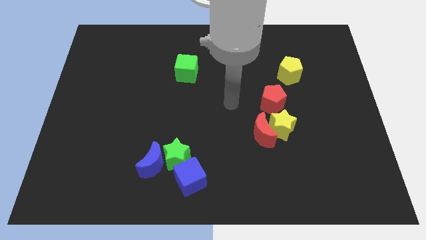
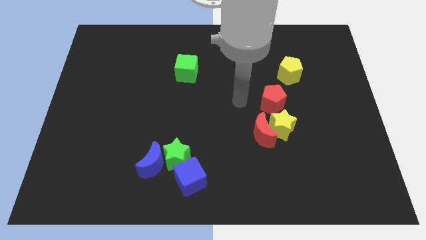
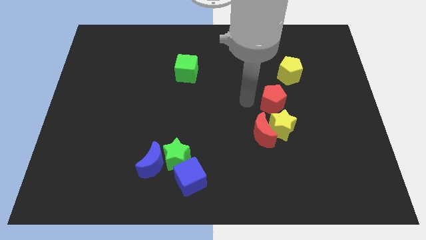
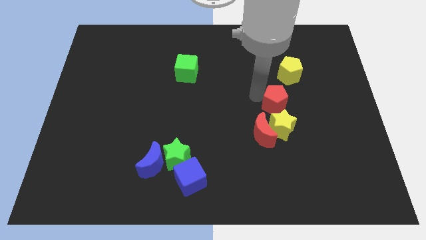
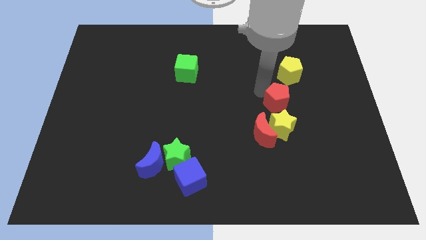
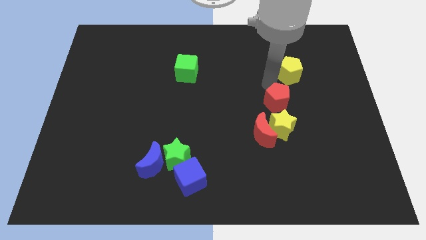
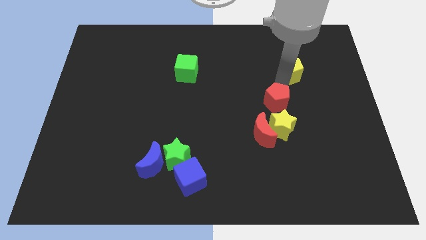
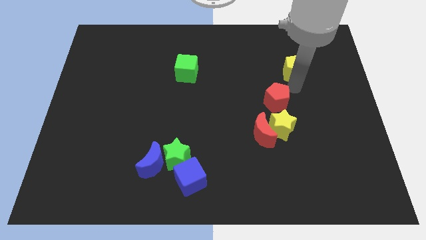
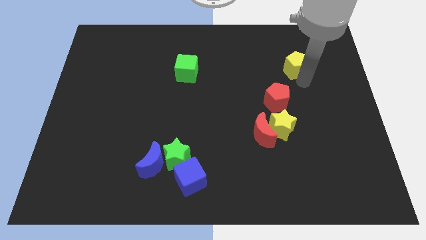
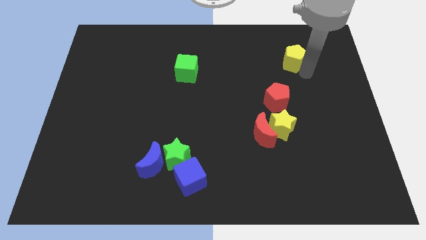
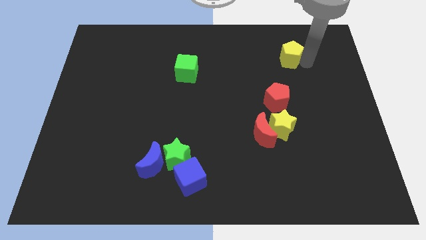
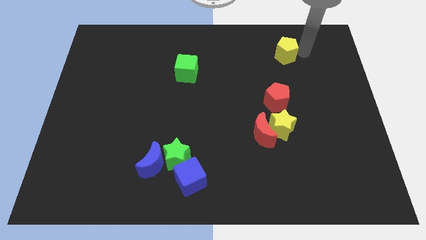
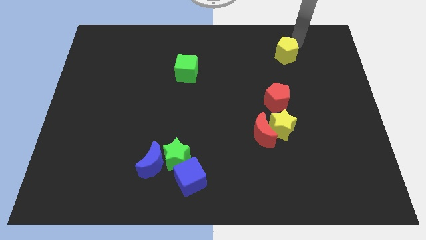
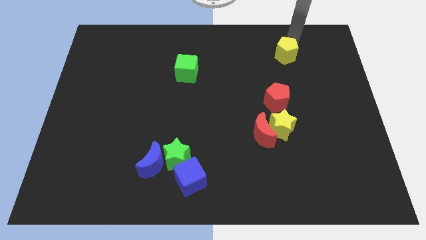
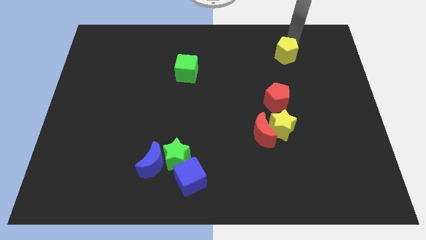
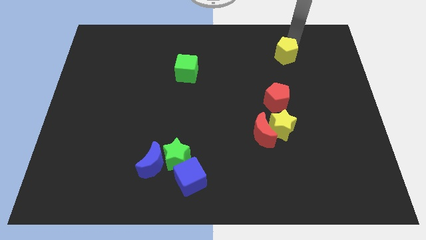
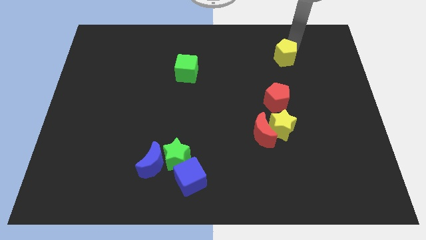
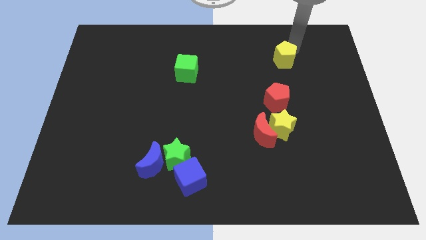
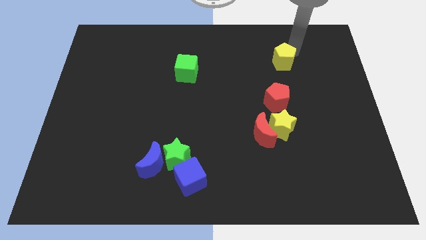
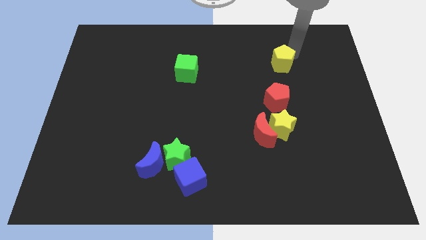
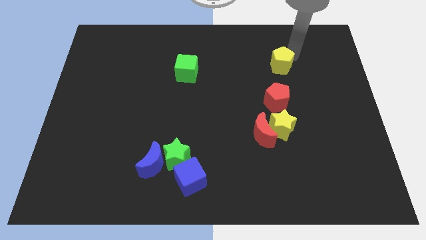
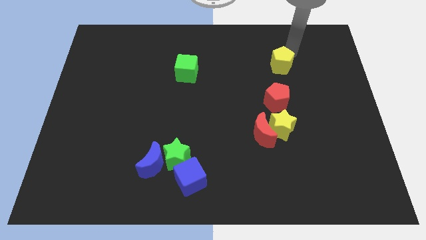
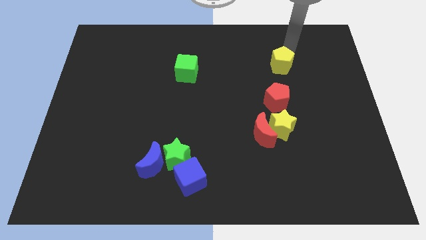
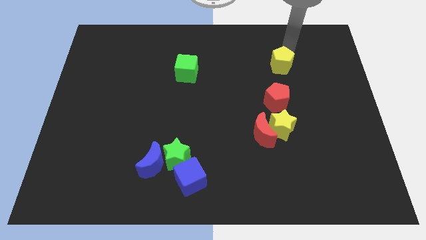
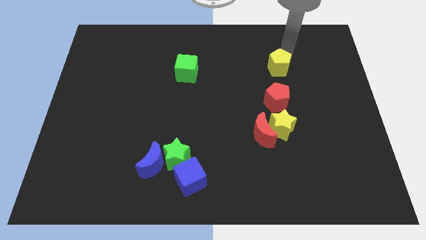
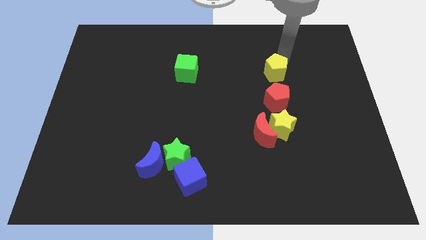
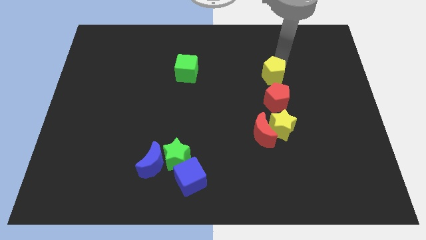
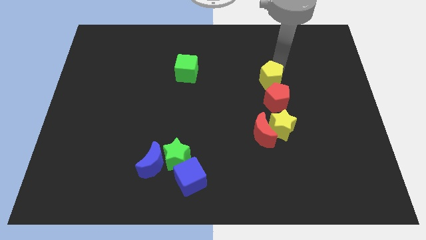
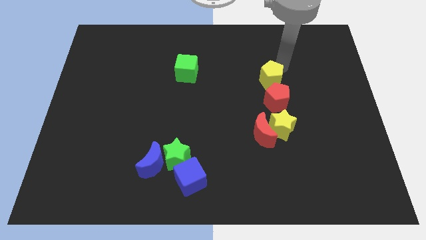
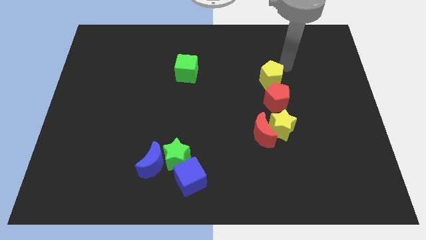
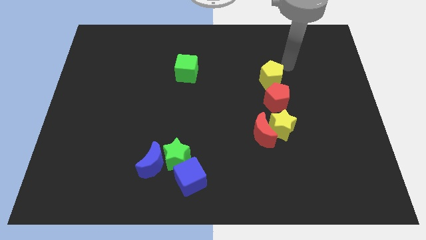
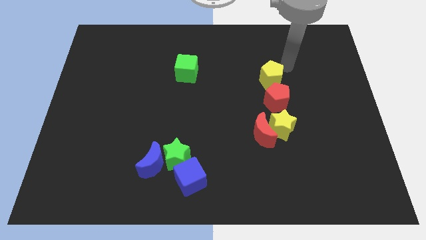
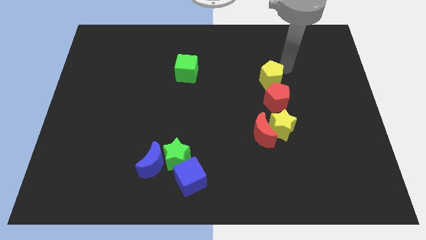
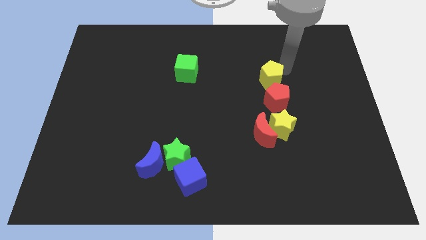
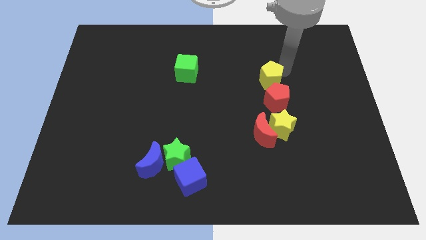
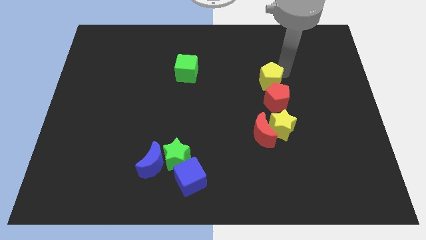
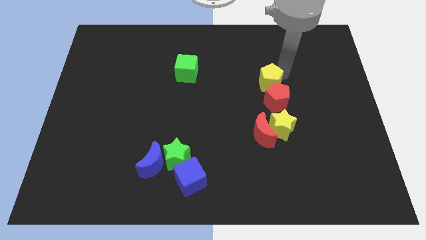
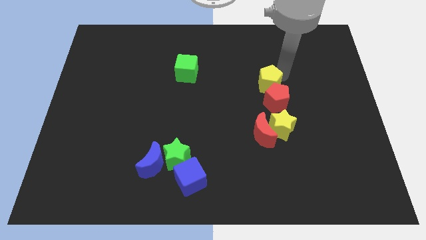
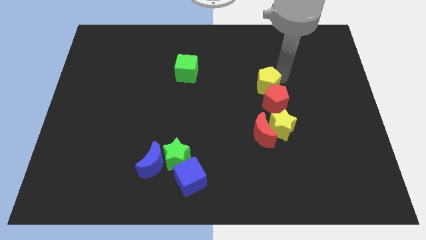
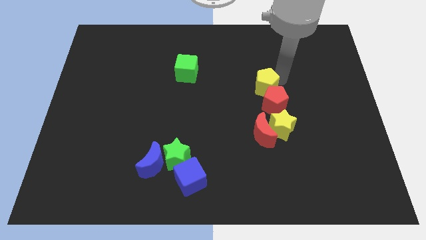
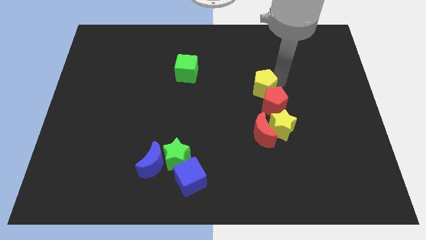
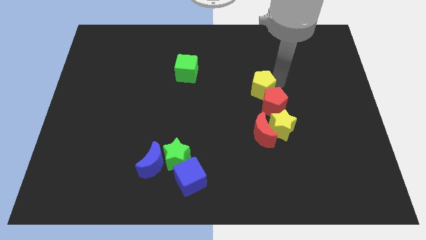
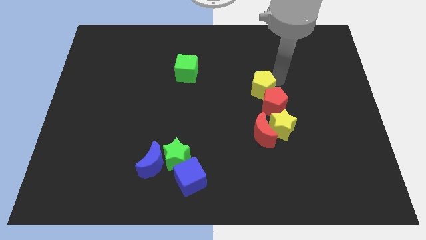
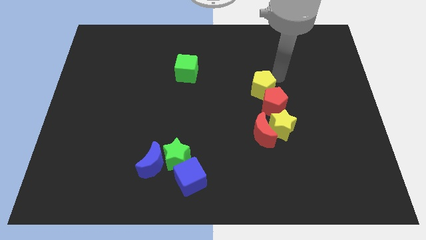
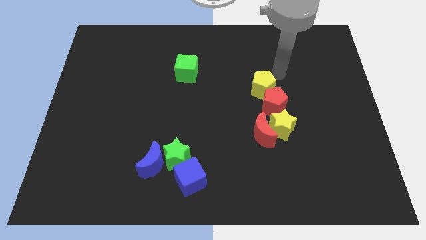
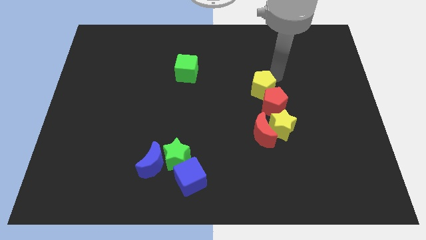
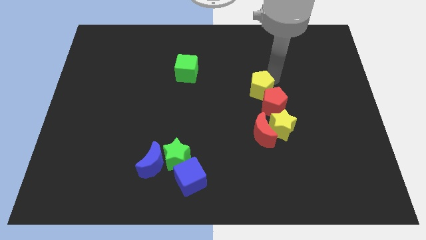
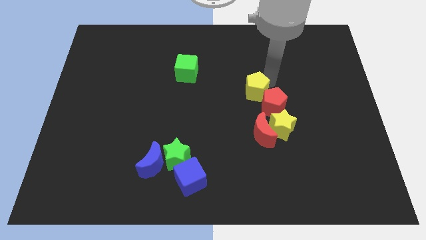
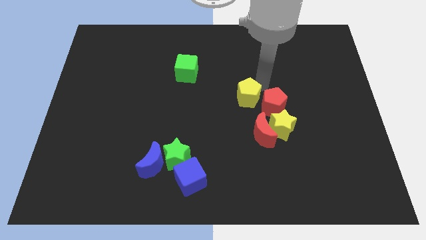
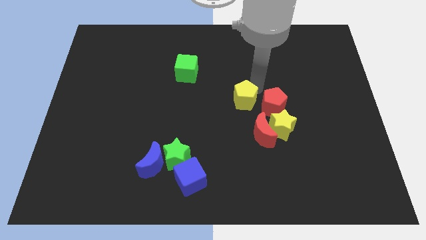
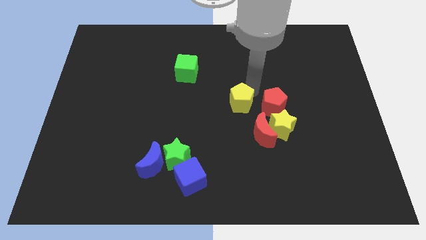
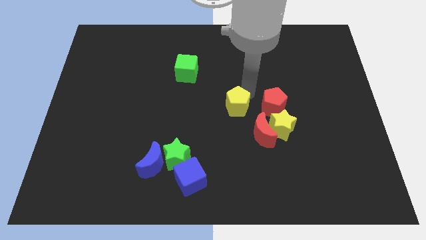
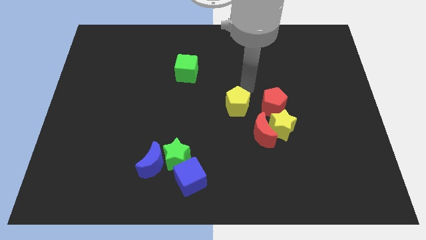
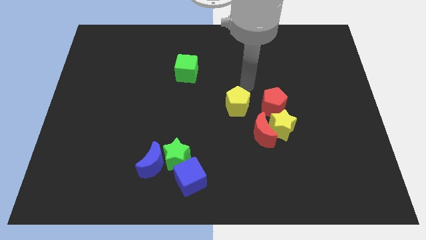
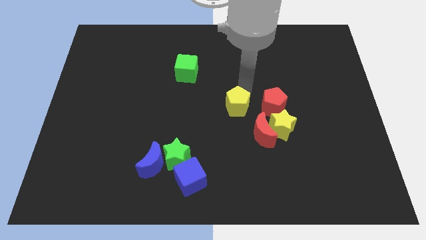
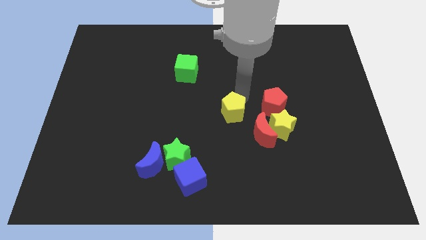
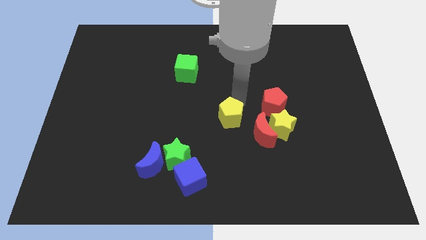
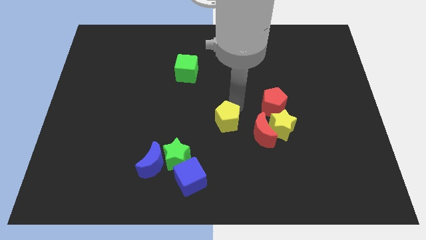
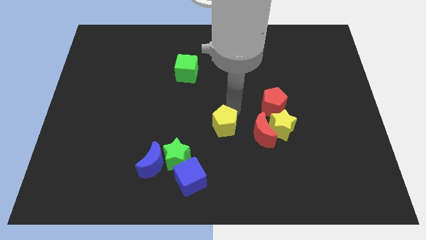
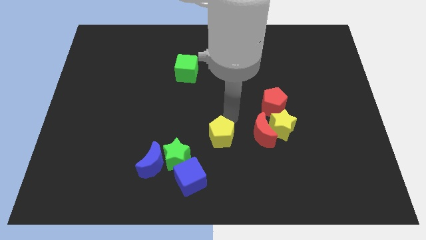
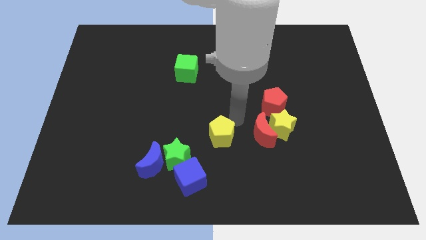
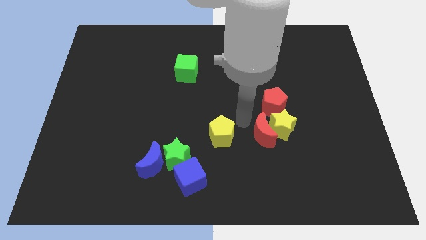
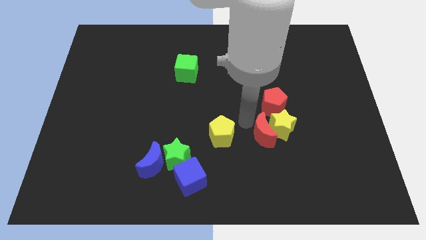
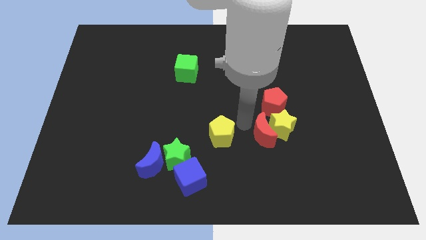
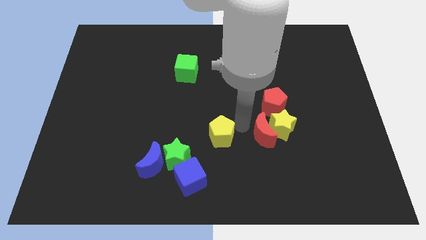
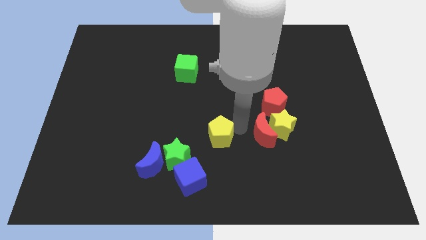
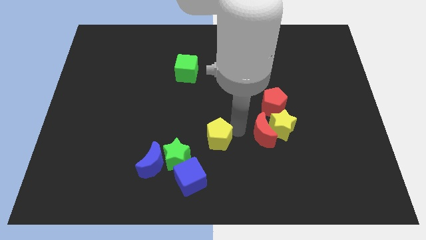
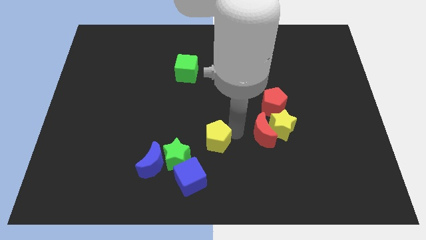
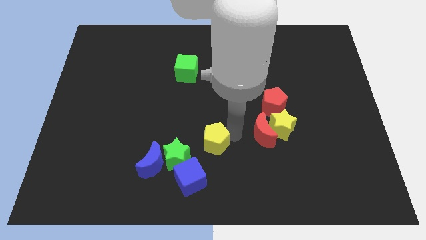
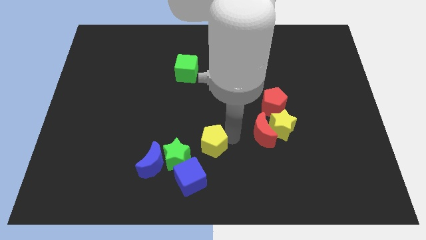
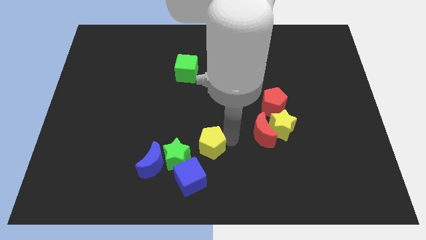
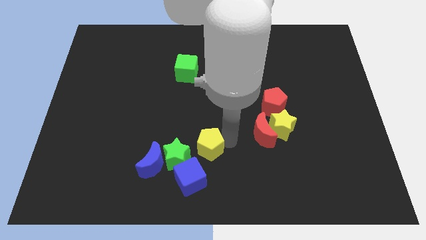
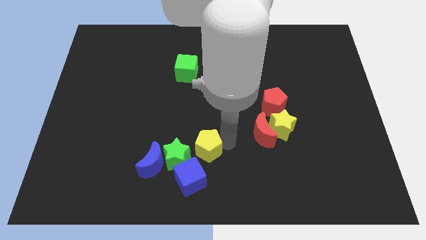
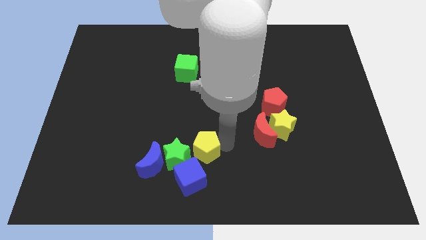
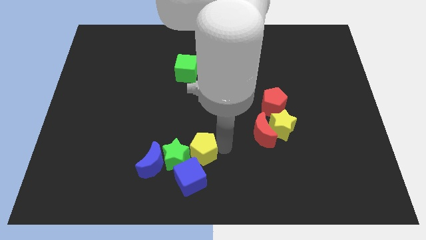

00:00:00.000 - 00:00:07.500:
slide the yellow pentagon towards the green star

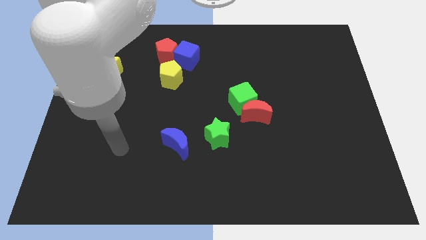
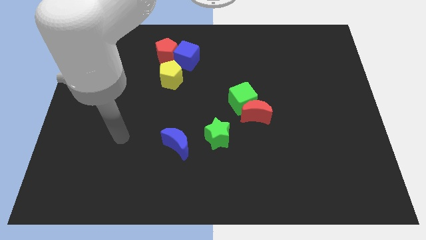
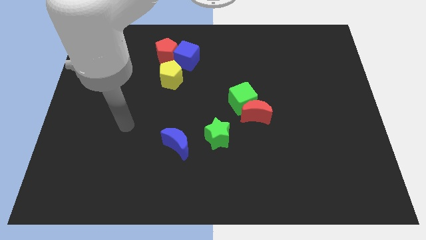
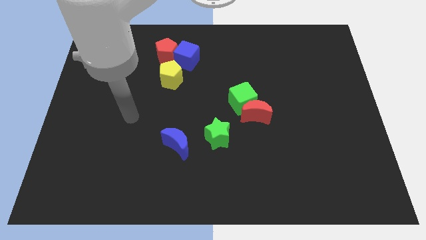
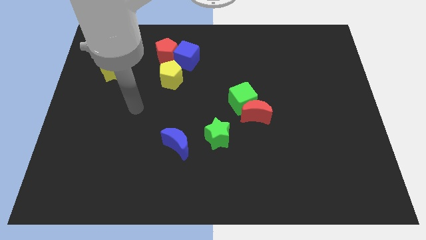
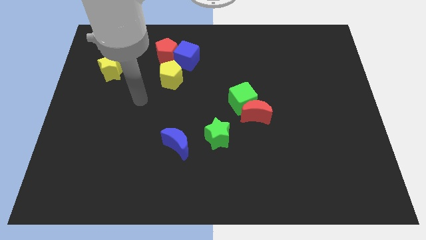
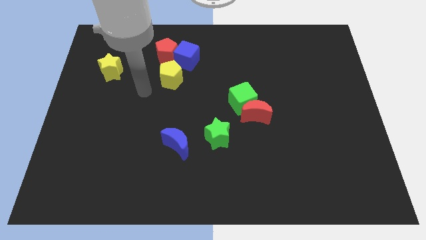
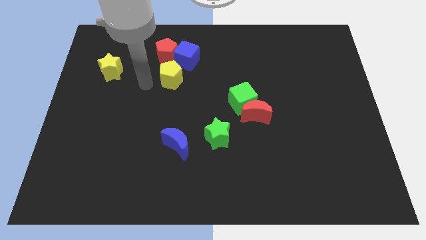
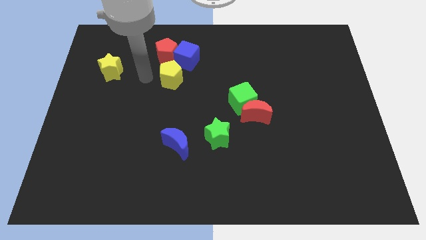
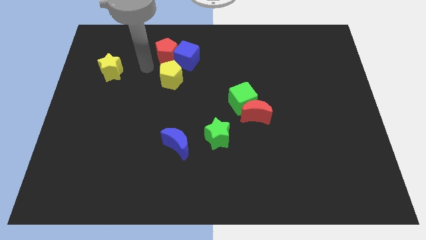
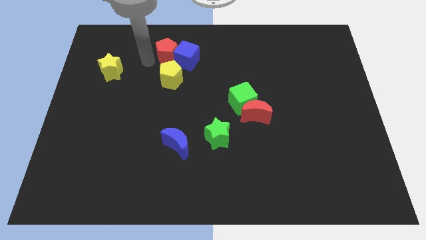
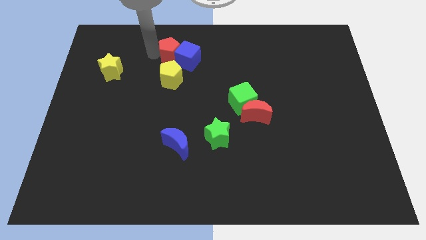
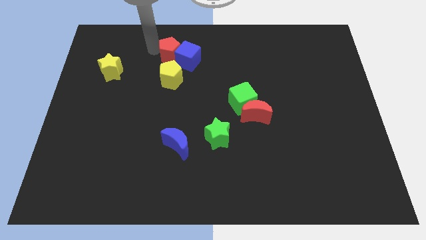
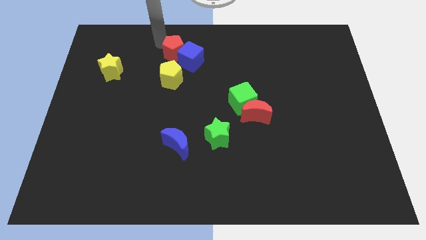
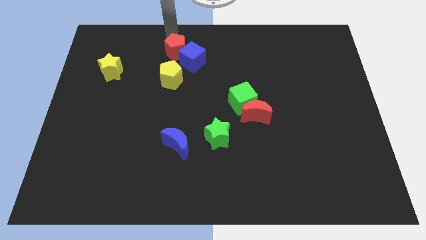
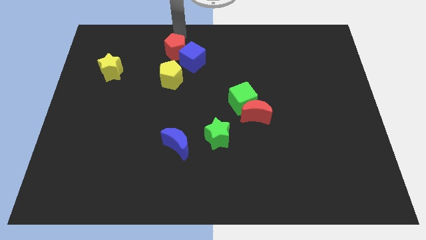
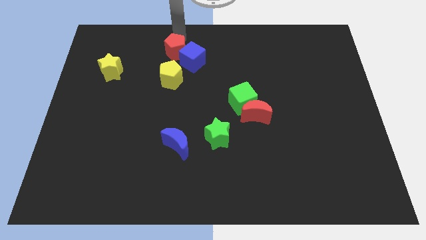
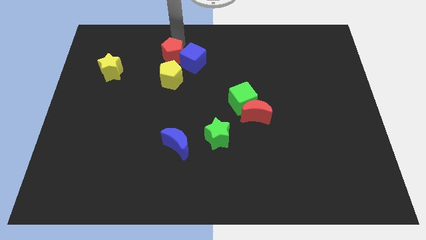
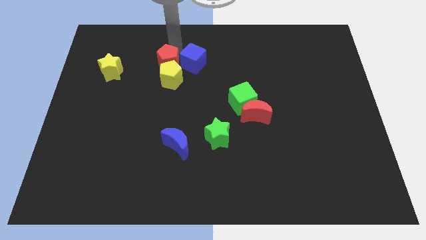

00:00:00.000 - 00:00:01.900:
push the red pentagon close to the yellow pentagon
